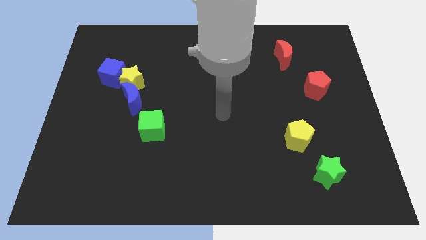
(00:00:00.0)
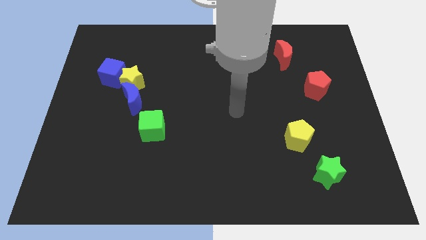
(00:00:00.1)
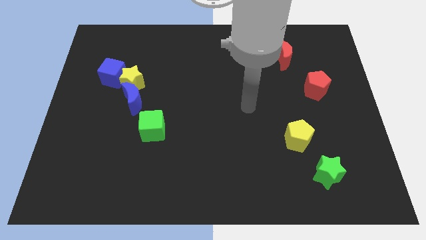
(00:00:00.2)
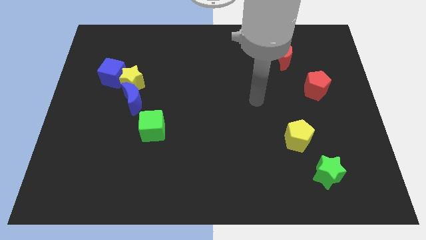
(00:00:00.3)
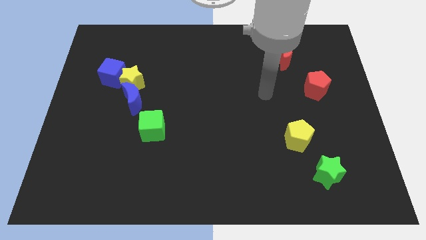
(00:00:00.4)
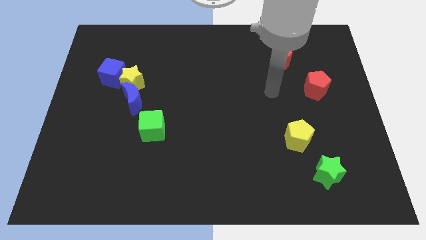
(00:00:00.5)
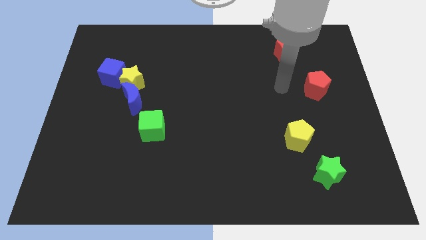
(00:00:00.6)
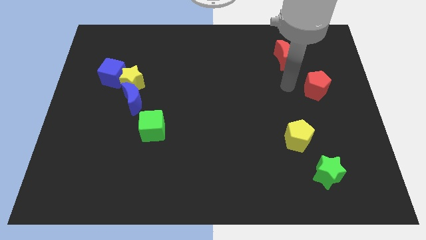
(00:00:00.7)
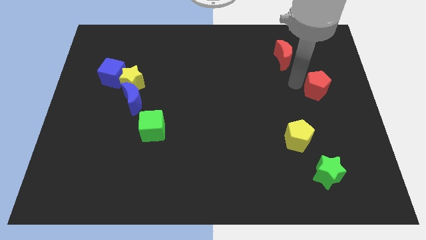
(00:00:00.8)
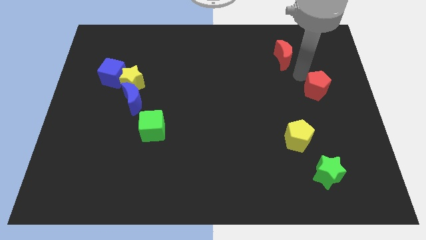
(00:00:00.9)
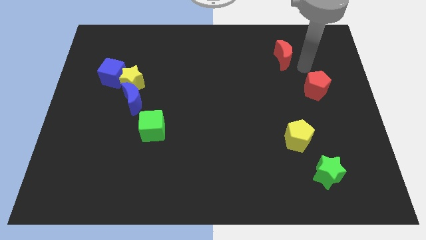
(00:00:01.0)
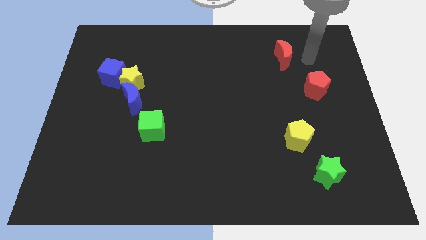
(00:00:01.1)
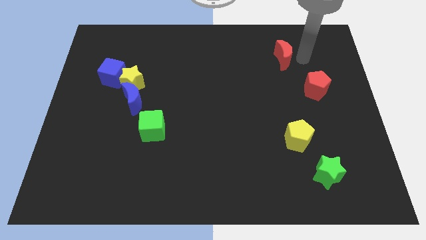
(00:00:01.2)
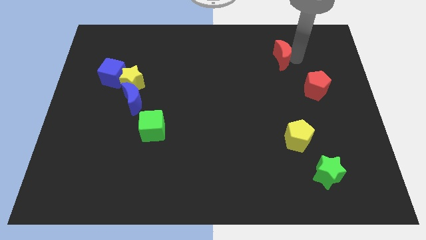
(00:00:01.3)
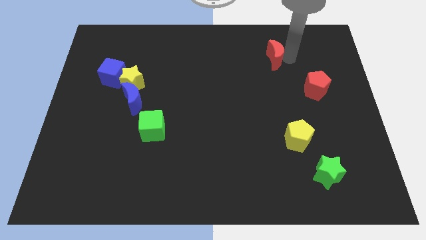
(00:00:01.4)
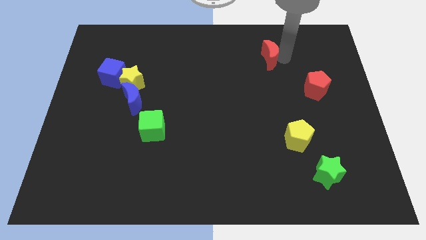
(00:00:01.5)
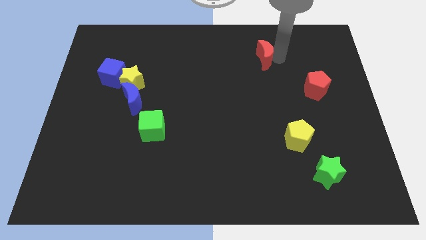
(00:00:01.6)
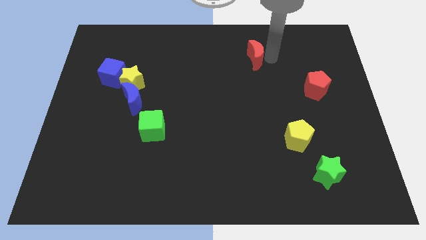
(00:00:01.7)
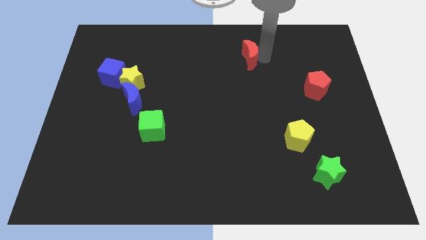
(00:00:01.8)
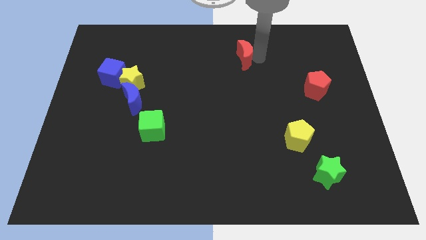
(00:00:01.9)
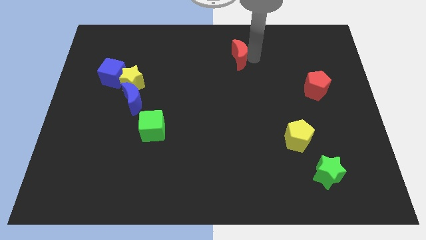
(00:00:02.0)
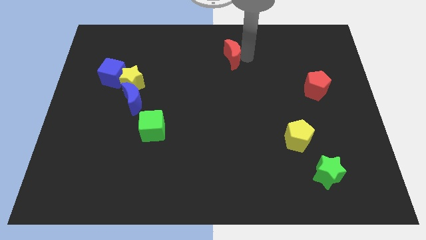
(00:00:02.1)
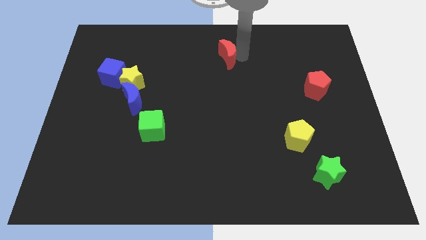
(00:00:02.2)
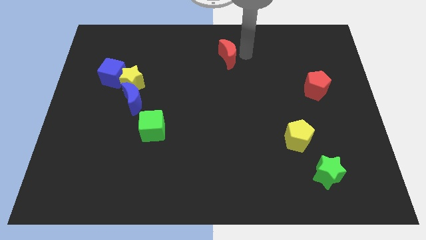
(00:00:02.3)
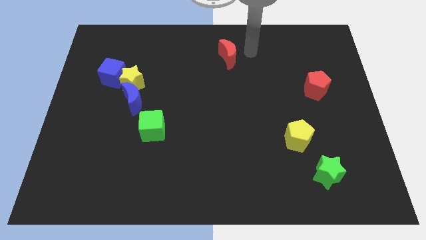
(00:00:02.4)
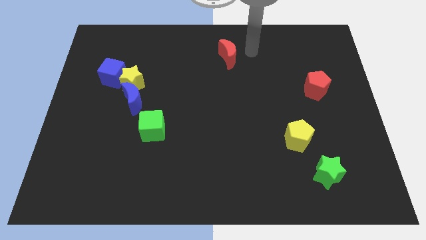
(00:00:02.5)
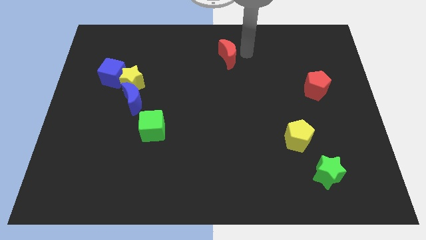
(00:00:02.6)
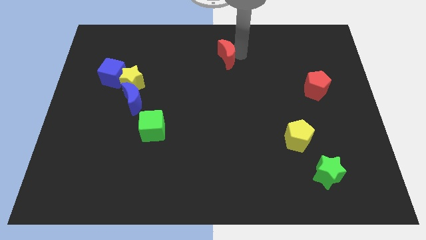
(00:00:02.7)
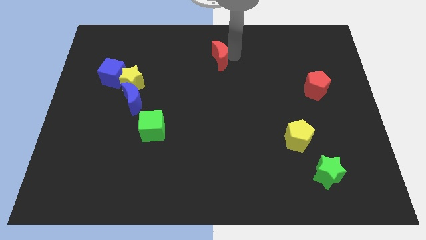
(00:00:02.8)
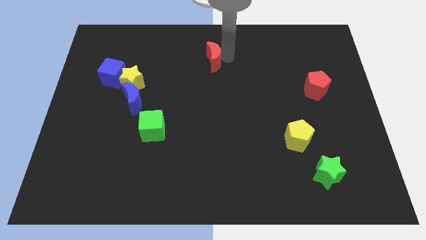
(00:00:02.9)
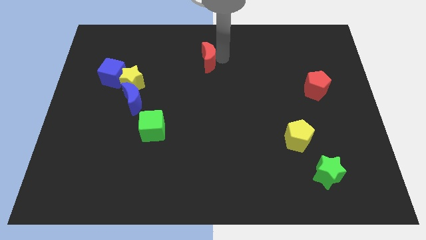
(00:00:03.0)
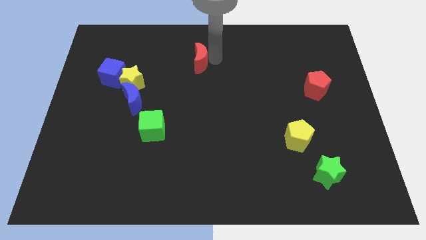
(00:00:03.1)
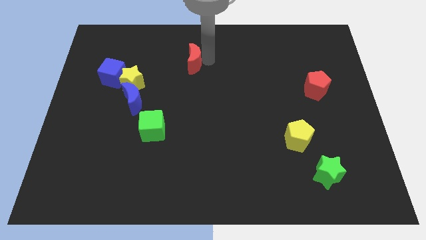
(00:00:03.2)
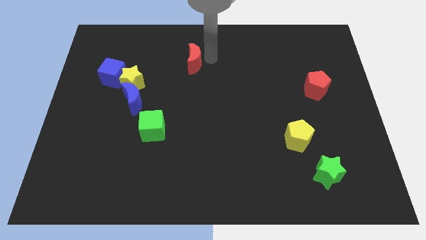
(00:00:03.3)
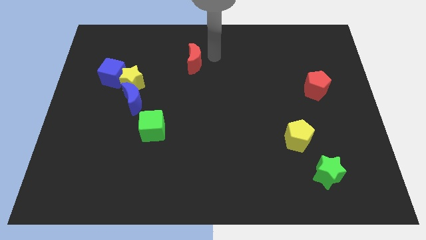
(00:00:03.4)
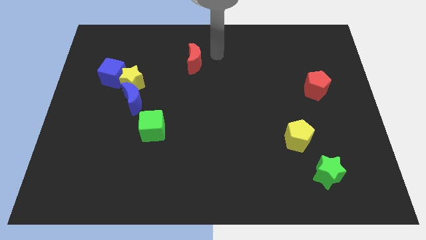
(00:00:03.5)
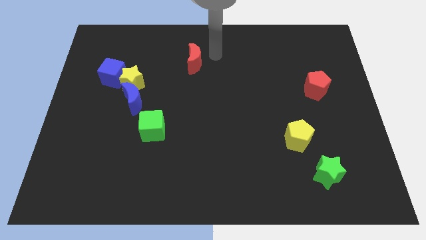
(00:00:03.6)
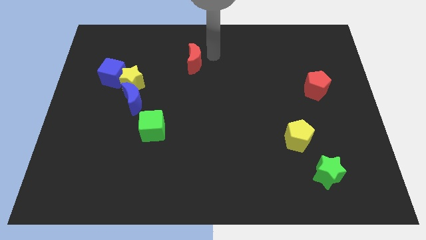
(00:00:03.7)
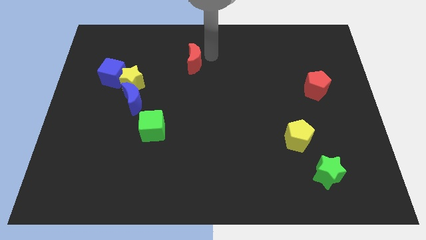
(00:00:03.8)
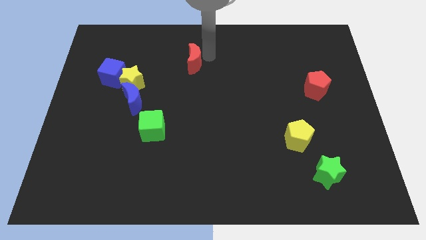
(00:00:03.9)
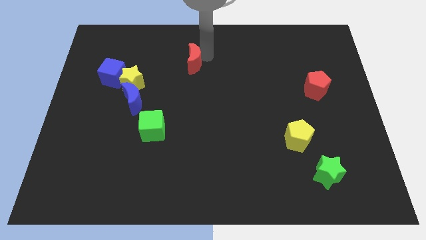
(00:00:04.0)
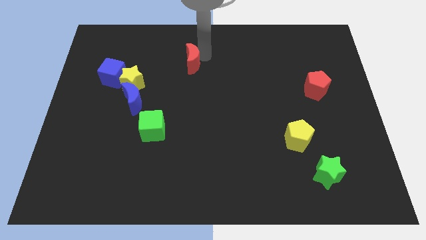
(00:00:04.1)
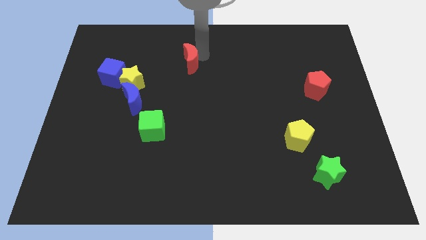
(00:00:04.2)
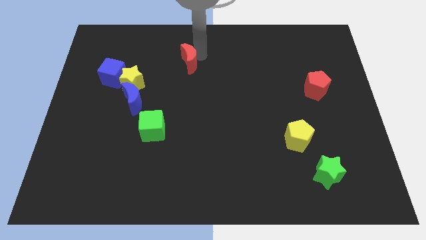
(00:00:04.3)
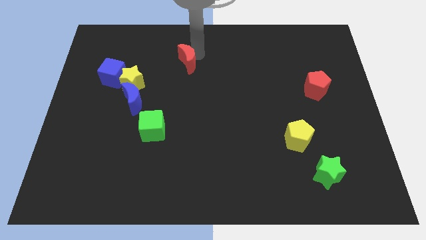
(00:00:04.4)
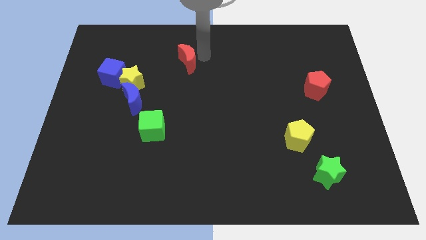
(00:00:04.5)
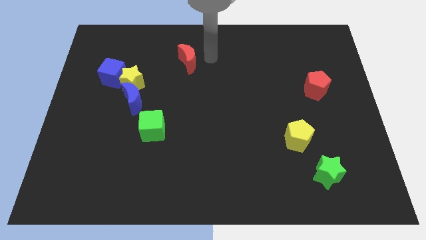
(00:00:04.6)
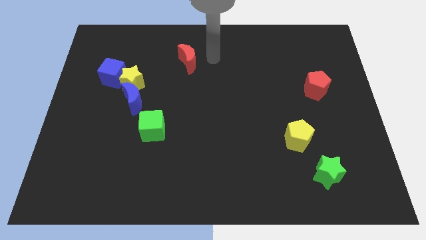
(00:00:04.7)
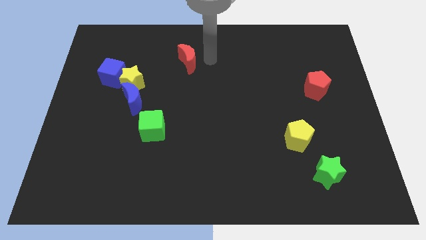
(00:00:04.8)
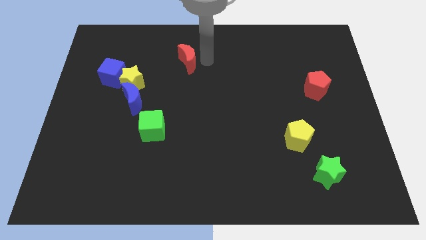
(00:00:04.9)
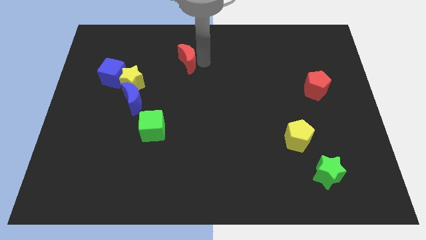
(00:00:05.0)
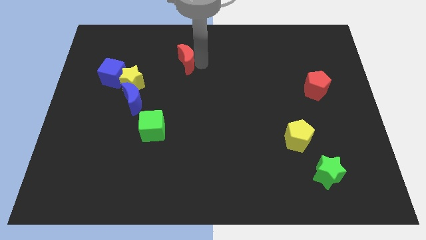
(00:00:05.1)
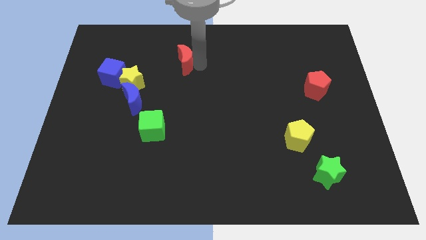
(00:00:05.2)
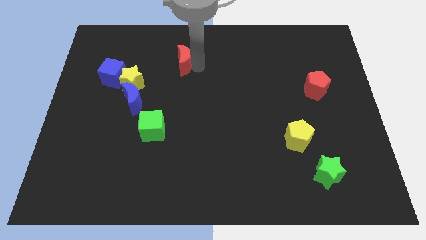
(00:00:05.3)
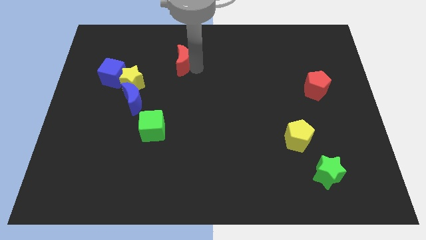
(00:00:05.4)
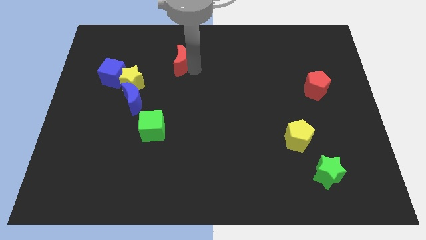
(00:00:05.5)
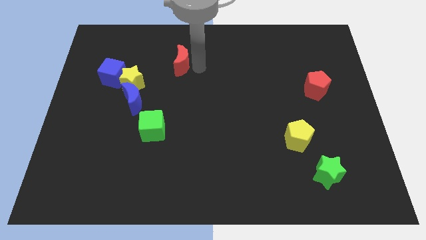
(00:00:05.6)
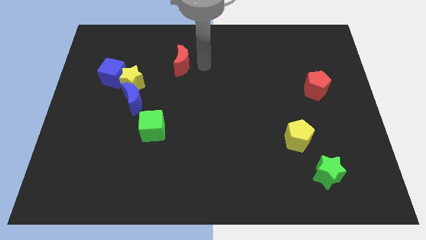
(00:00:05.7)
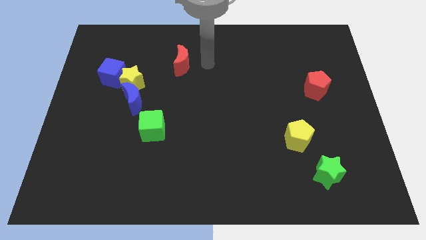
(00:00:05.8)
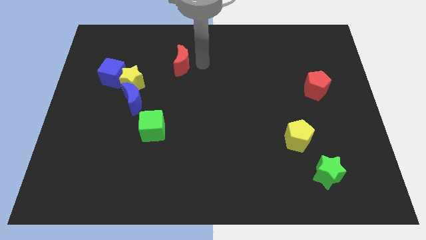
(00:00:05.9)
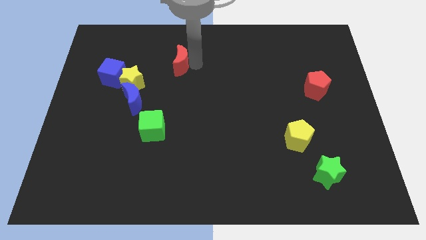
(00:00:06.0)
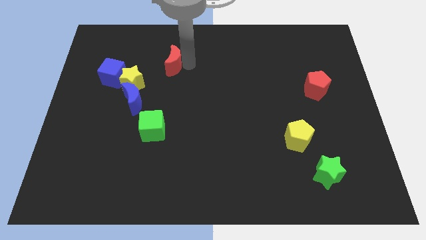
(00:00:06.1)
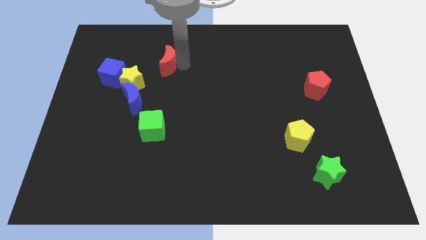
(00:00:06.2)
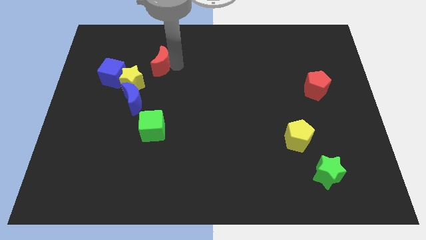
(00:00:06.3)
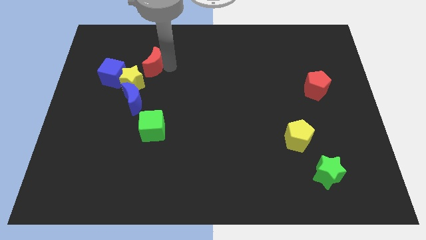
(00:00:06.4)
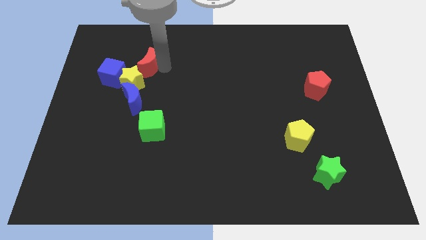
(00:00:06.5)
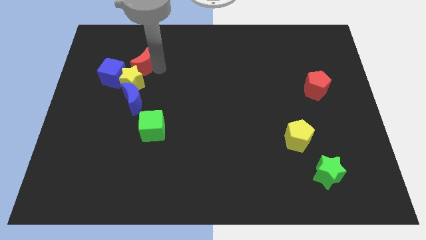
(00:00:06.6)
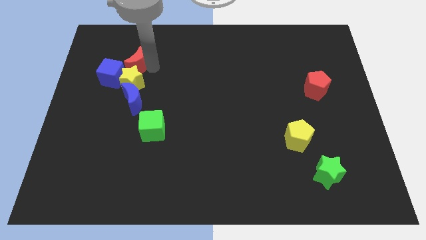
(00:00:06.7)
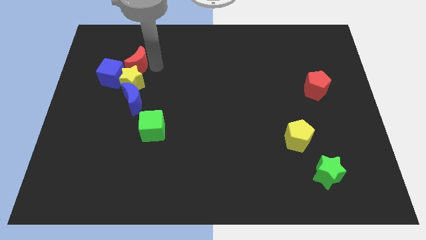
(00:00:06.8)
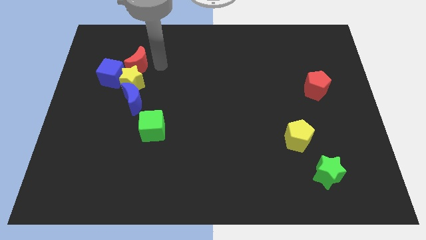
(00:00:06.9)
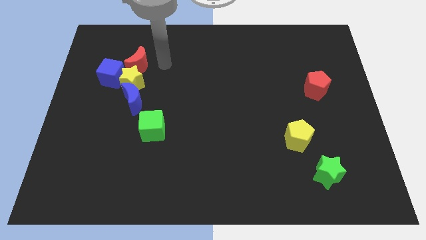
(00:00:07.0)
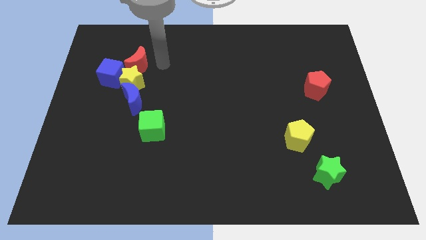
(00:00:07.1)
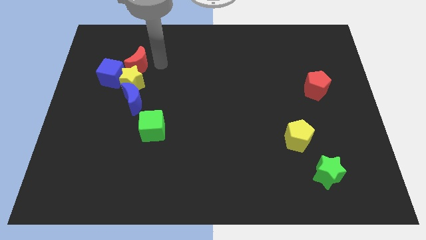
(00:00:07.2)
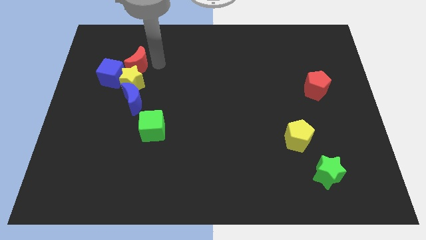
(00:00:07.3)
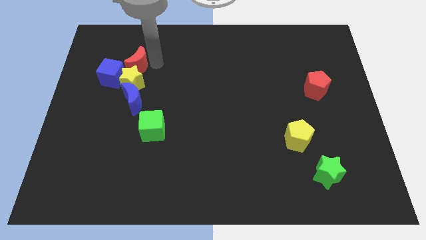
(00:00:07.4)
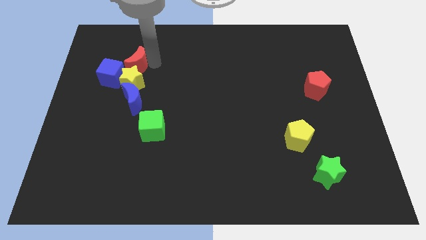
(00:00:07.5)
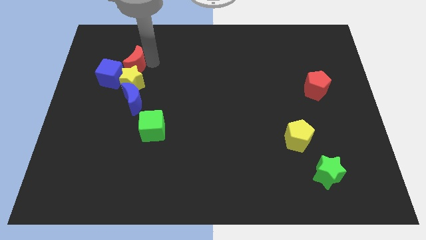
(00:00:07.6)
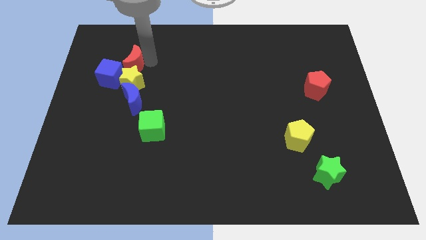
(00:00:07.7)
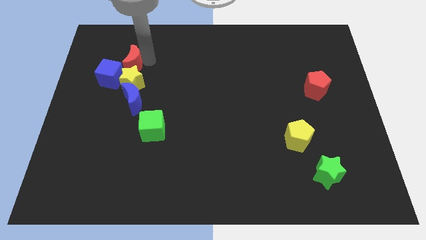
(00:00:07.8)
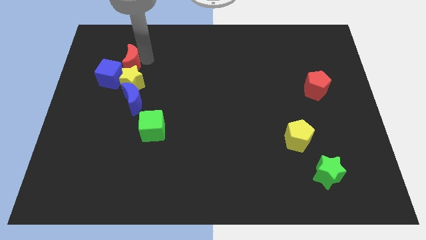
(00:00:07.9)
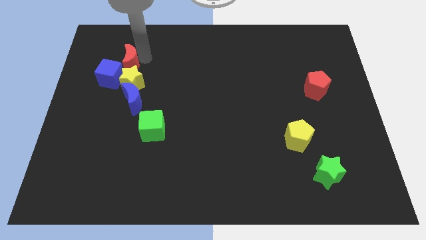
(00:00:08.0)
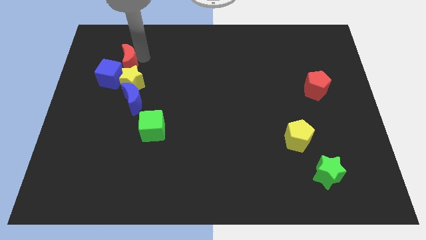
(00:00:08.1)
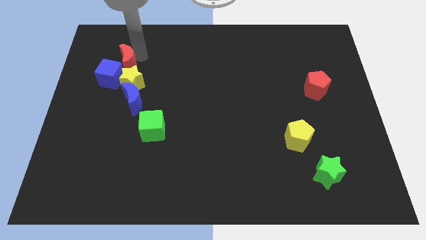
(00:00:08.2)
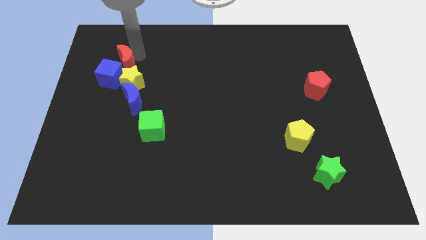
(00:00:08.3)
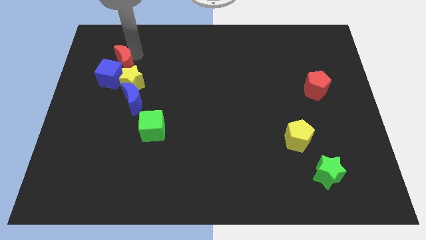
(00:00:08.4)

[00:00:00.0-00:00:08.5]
move the red moon next to the blue cube
